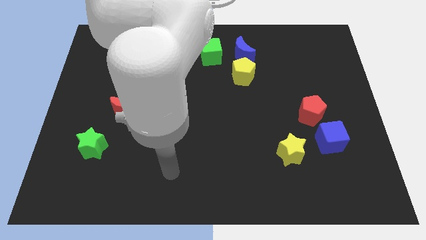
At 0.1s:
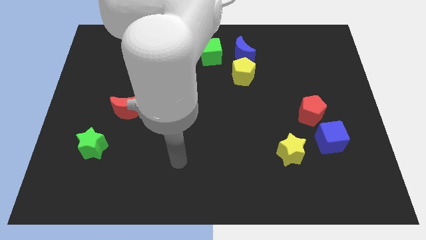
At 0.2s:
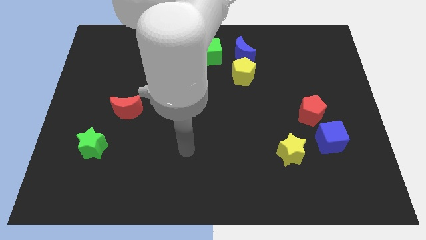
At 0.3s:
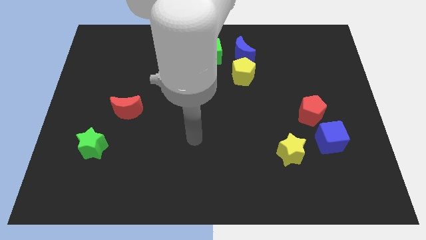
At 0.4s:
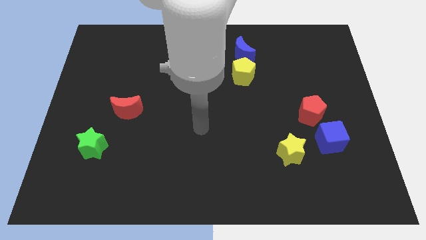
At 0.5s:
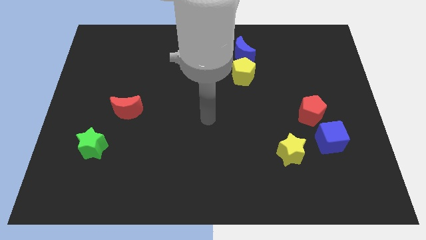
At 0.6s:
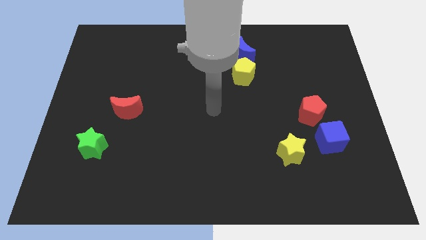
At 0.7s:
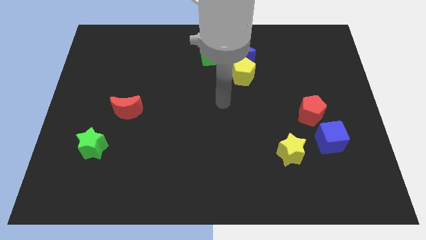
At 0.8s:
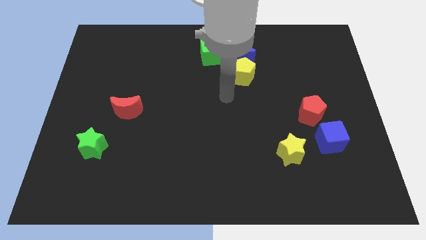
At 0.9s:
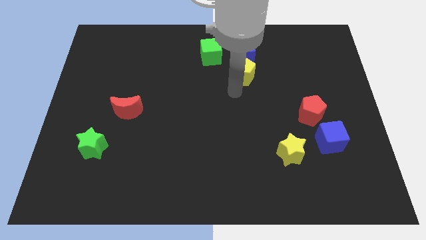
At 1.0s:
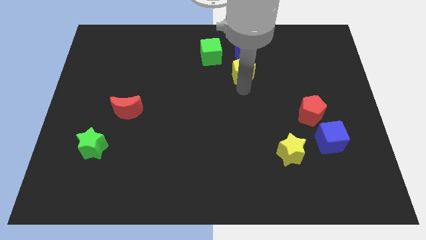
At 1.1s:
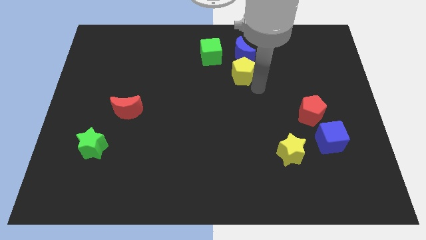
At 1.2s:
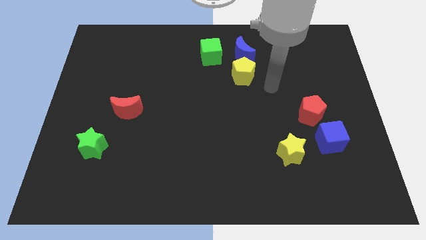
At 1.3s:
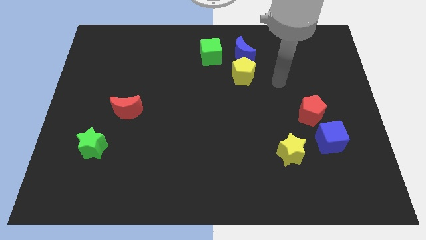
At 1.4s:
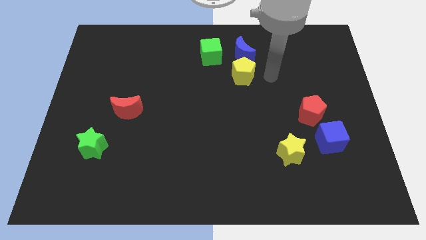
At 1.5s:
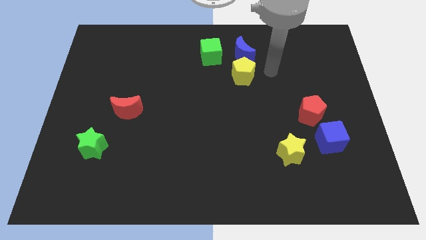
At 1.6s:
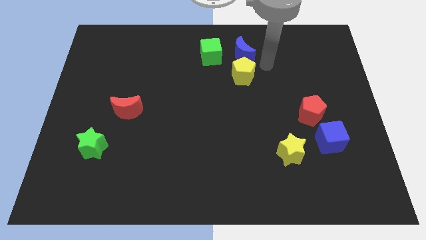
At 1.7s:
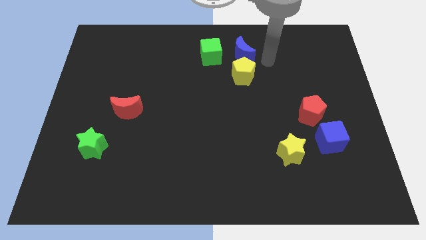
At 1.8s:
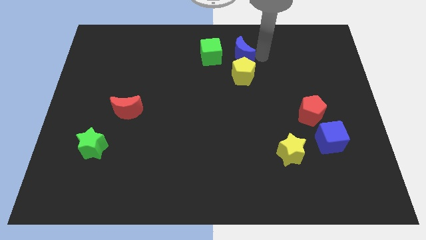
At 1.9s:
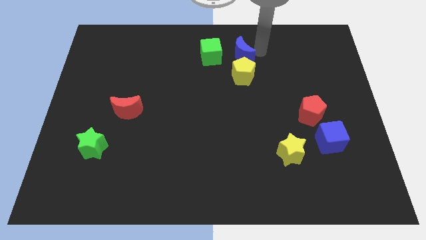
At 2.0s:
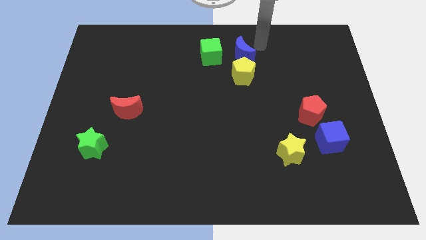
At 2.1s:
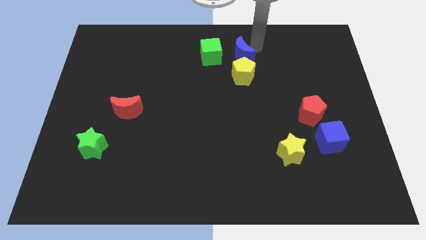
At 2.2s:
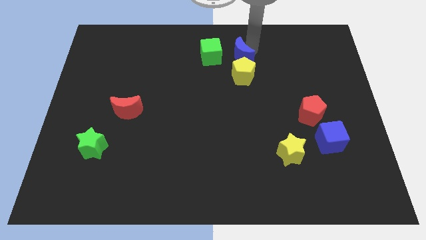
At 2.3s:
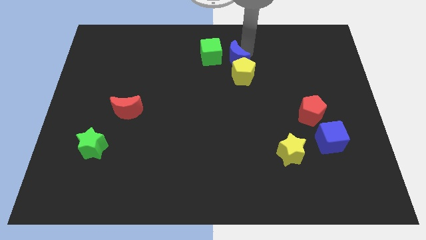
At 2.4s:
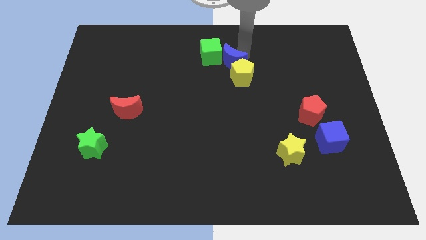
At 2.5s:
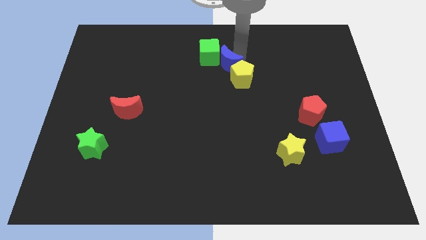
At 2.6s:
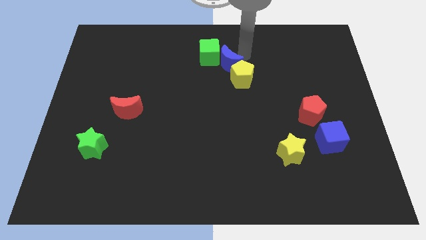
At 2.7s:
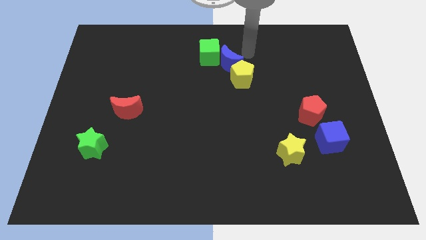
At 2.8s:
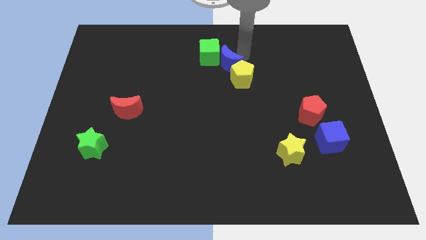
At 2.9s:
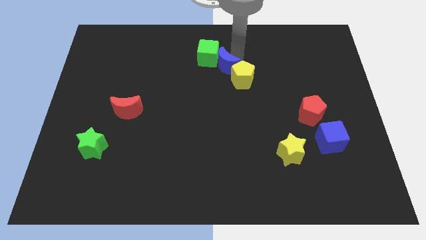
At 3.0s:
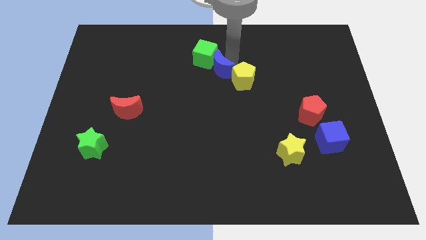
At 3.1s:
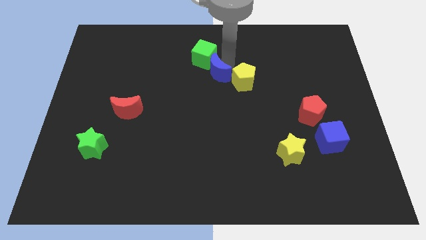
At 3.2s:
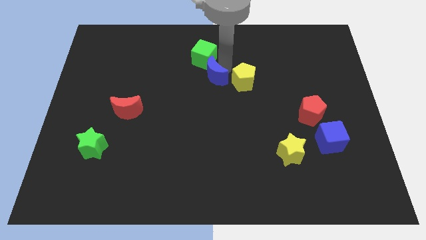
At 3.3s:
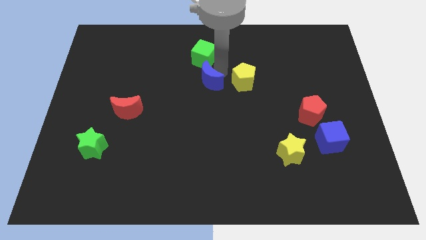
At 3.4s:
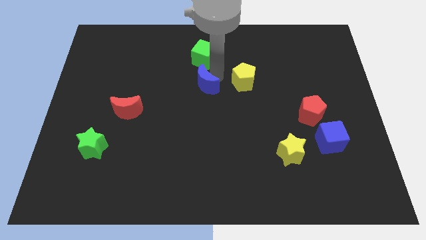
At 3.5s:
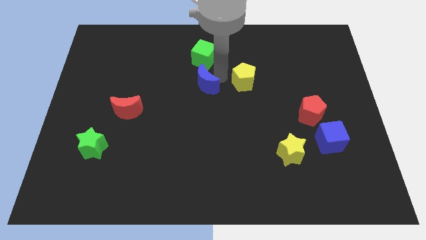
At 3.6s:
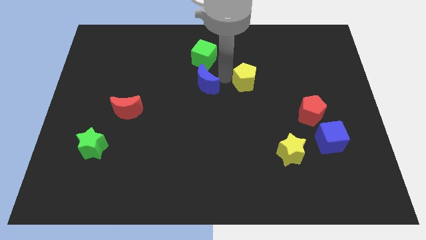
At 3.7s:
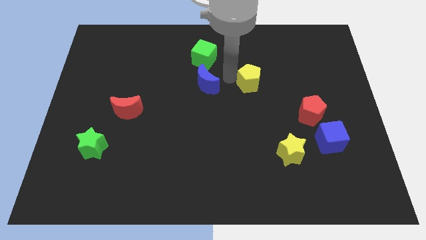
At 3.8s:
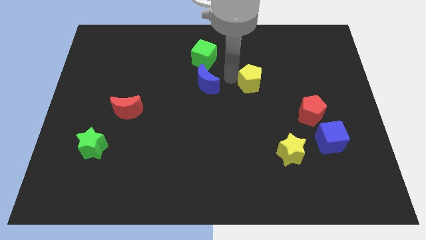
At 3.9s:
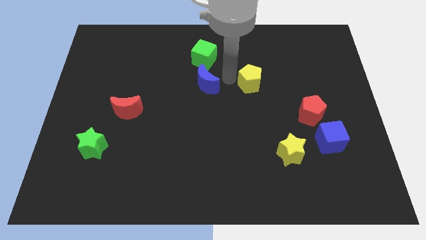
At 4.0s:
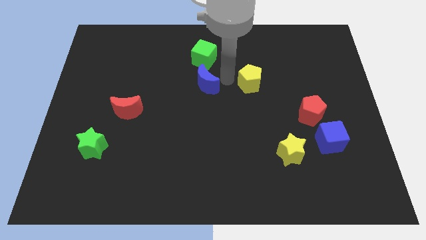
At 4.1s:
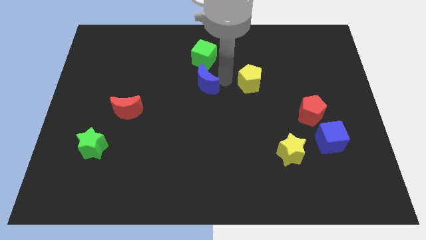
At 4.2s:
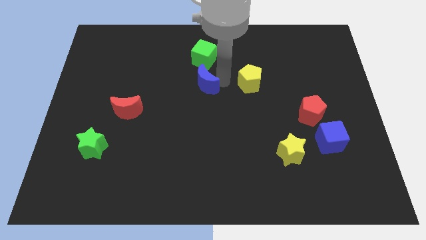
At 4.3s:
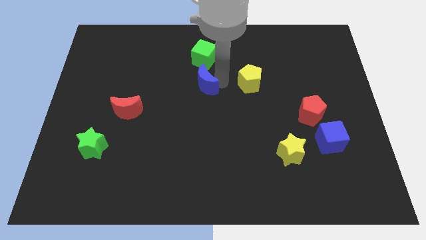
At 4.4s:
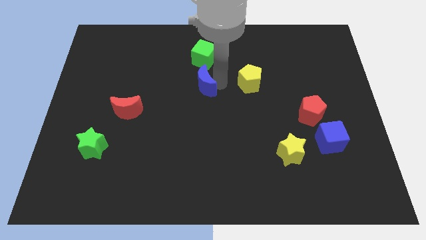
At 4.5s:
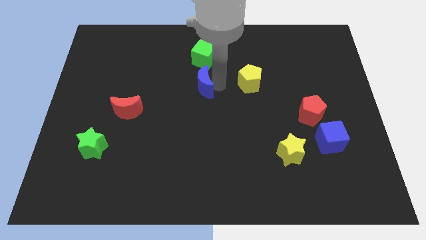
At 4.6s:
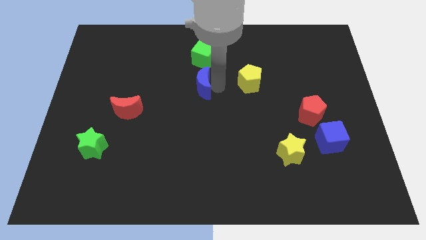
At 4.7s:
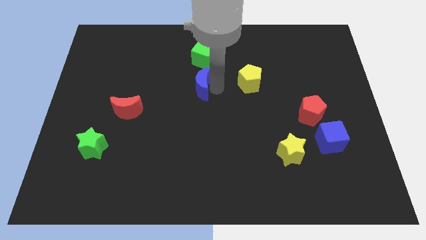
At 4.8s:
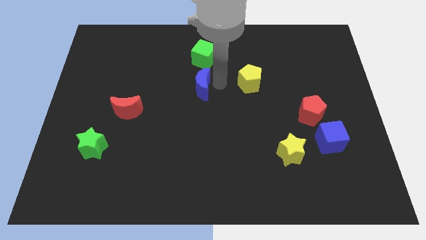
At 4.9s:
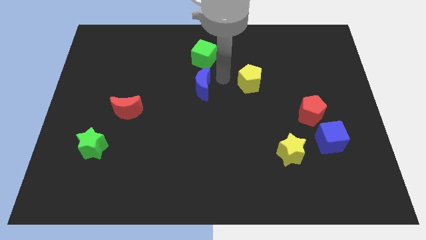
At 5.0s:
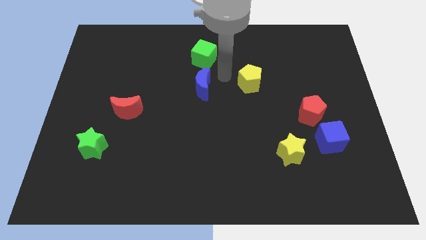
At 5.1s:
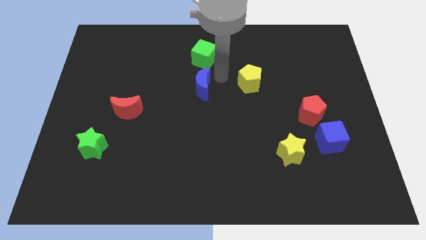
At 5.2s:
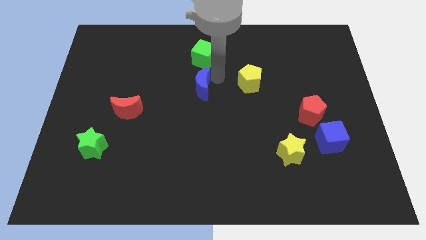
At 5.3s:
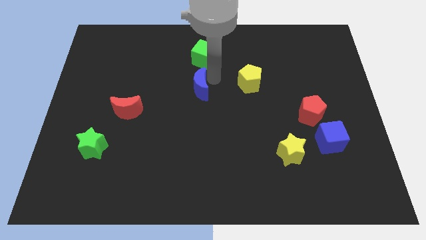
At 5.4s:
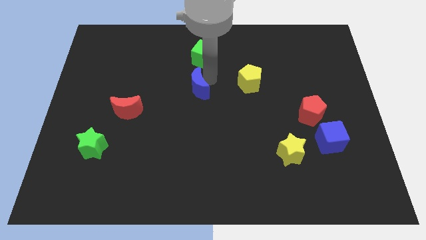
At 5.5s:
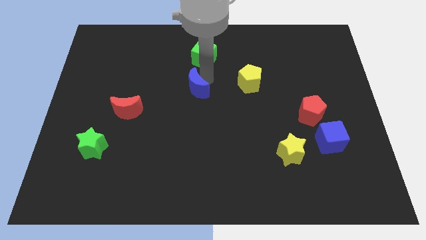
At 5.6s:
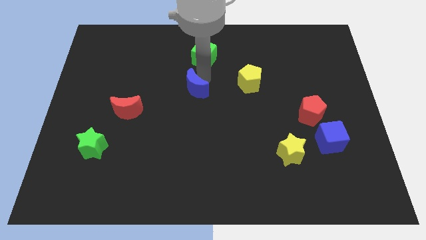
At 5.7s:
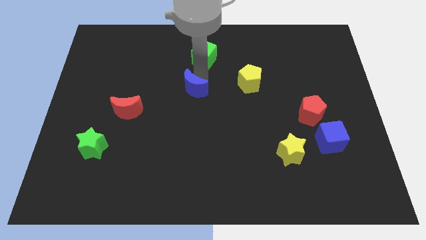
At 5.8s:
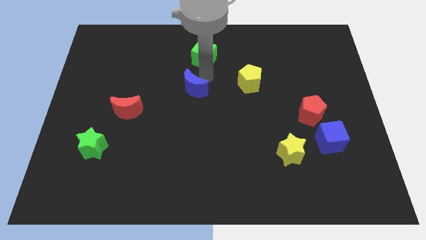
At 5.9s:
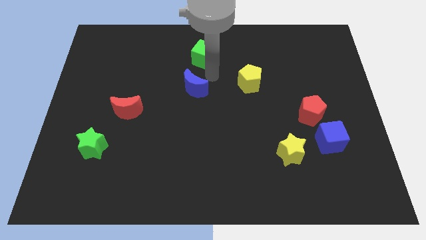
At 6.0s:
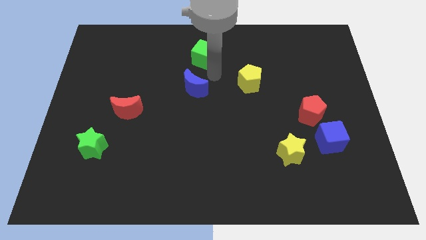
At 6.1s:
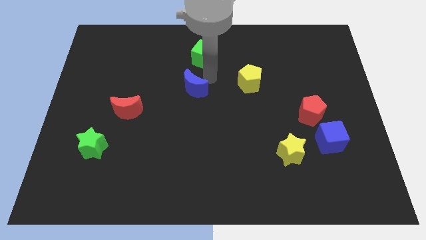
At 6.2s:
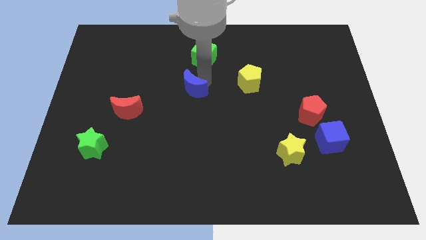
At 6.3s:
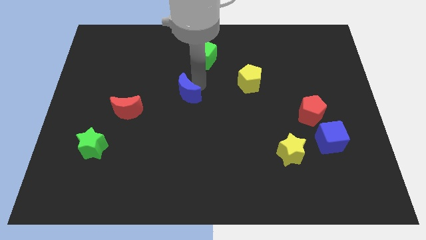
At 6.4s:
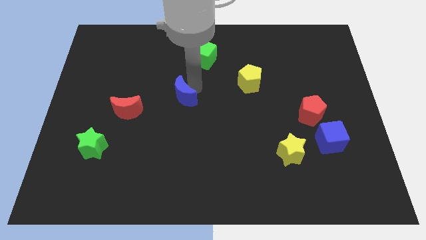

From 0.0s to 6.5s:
slide the blue moon diagonally down and left

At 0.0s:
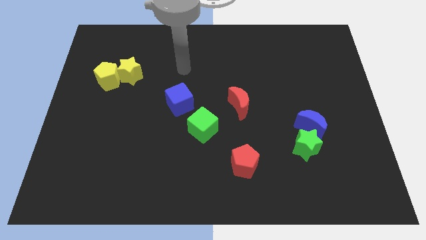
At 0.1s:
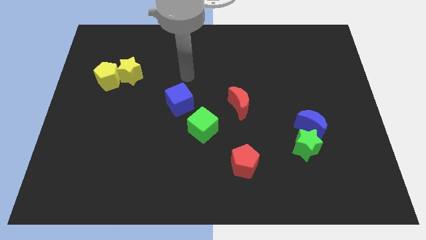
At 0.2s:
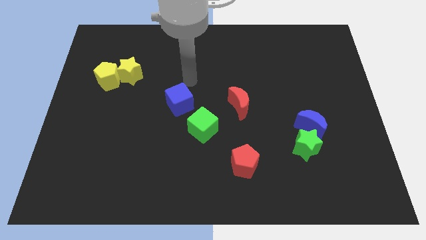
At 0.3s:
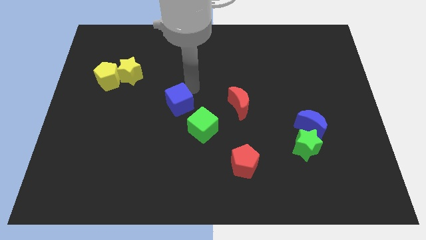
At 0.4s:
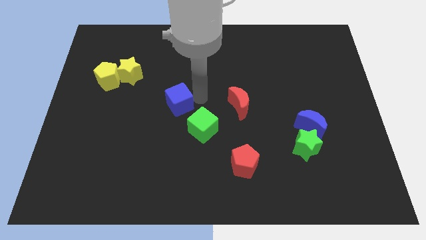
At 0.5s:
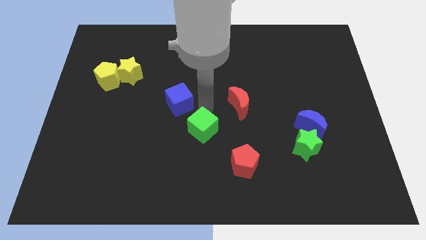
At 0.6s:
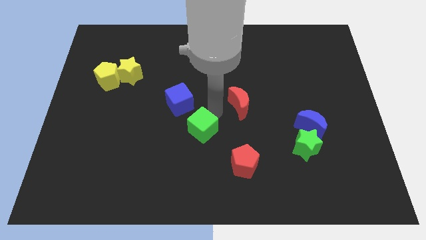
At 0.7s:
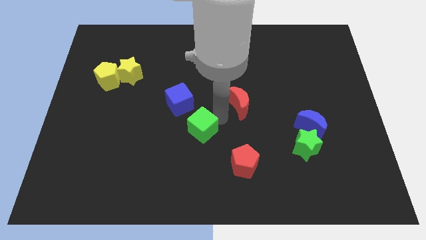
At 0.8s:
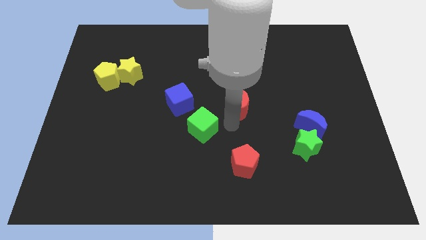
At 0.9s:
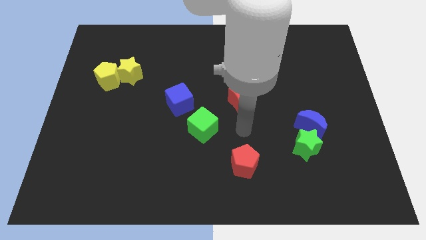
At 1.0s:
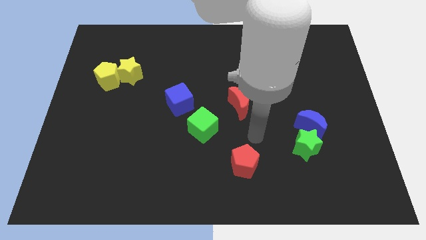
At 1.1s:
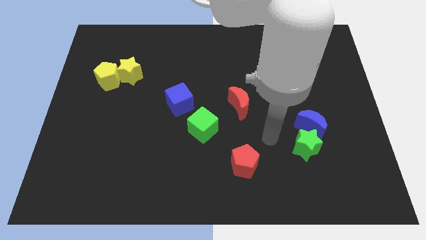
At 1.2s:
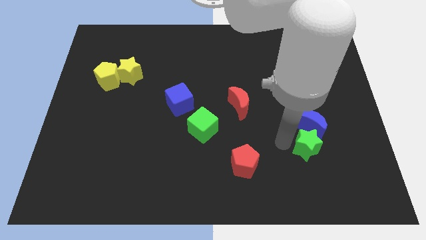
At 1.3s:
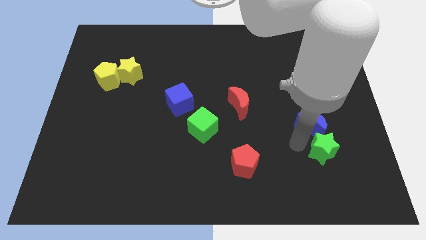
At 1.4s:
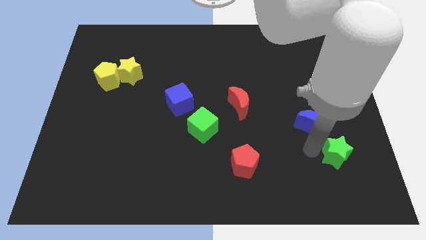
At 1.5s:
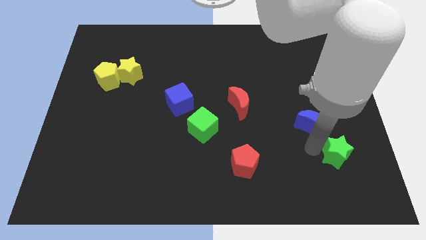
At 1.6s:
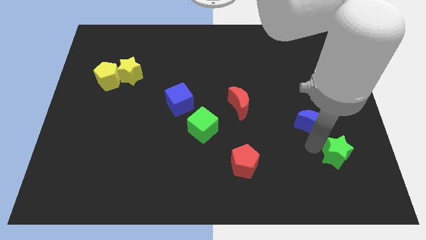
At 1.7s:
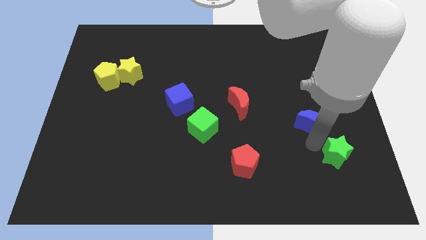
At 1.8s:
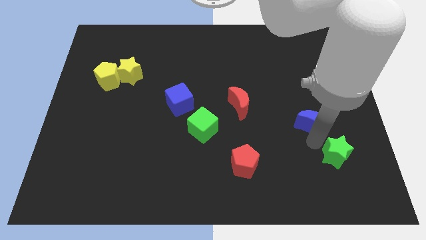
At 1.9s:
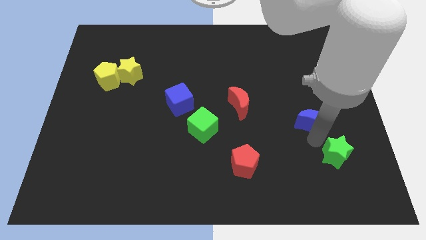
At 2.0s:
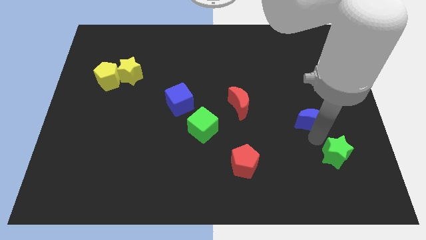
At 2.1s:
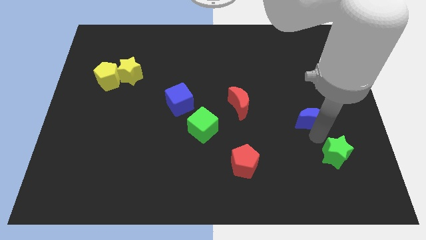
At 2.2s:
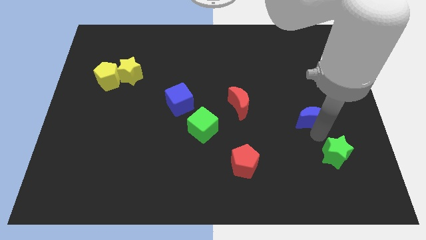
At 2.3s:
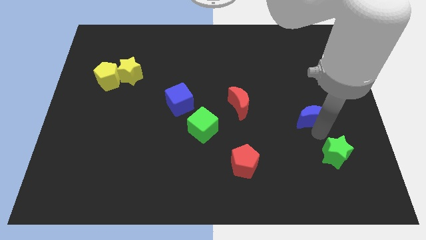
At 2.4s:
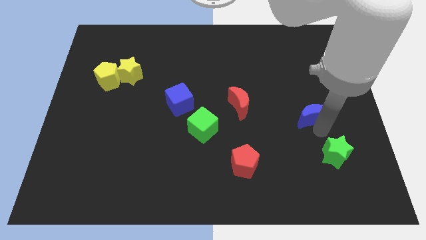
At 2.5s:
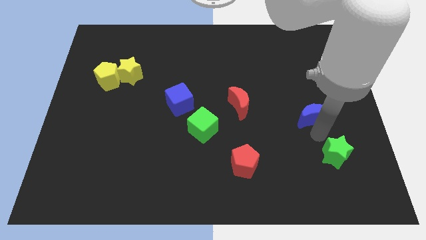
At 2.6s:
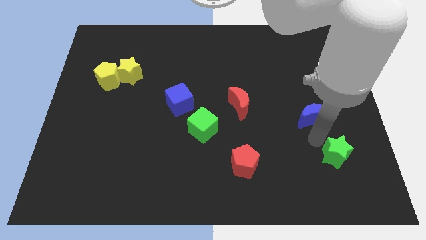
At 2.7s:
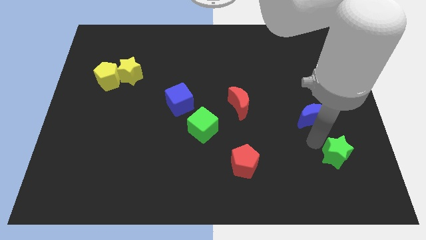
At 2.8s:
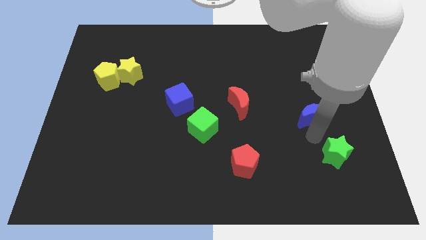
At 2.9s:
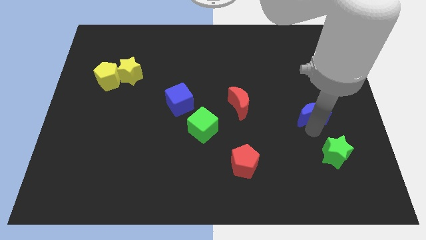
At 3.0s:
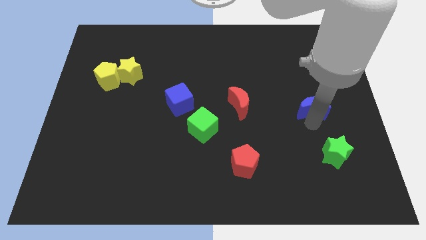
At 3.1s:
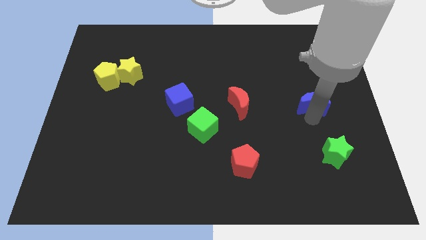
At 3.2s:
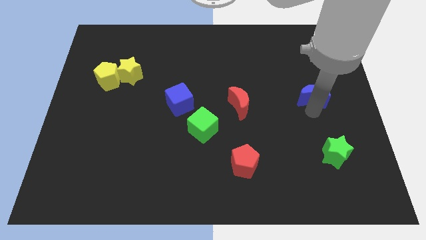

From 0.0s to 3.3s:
slide the blue moon up a bit
